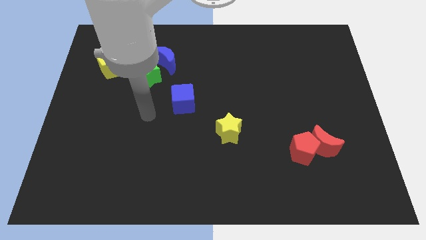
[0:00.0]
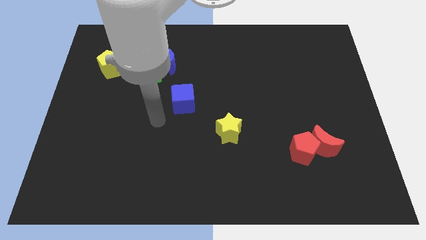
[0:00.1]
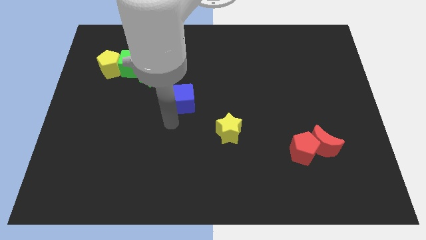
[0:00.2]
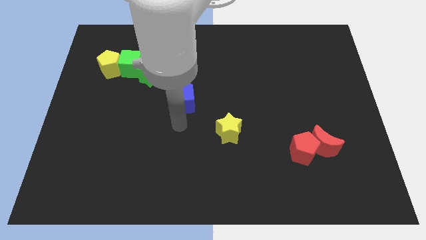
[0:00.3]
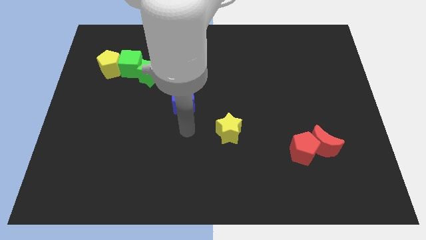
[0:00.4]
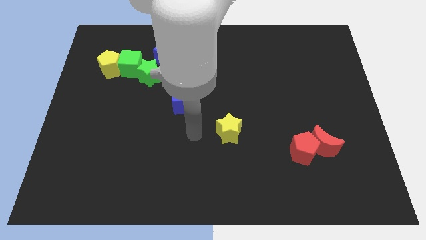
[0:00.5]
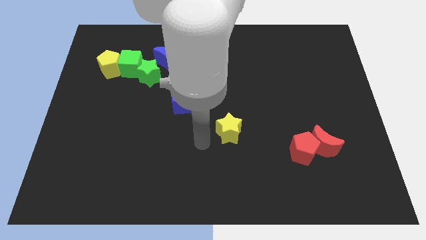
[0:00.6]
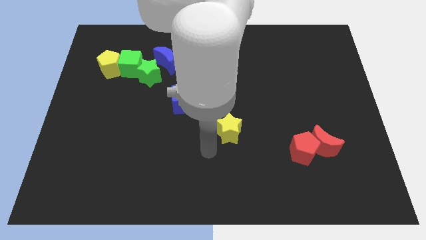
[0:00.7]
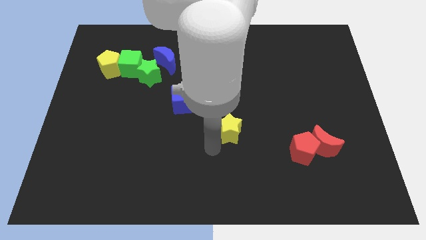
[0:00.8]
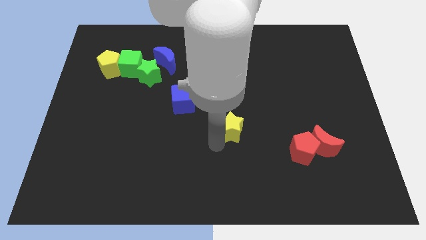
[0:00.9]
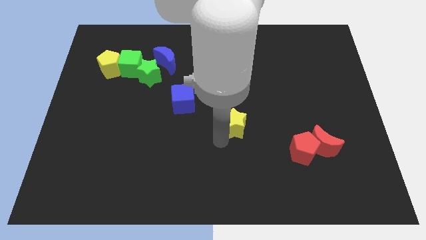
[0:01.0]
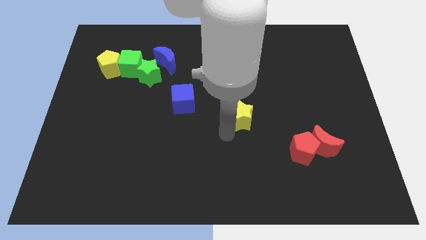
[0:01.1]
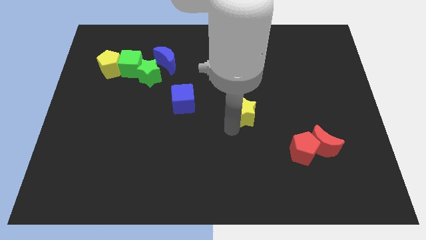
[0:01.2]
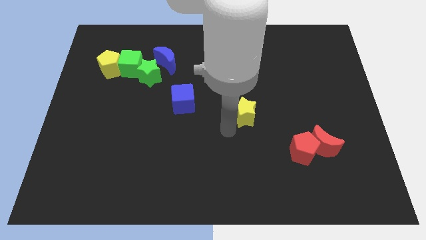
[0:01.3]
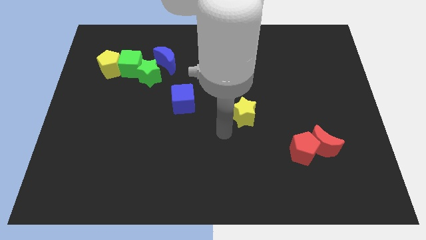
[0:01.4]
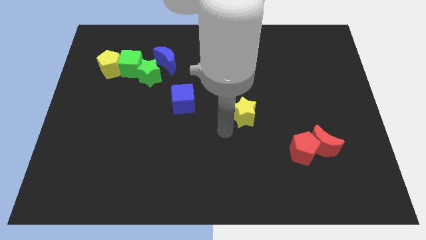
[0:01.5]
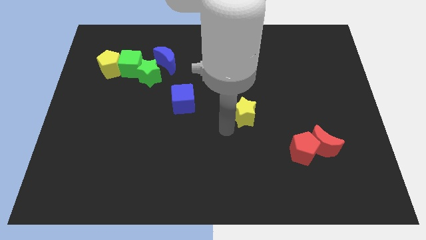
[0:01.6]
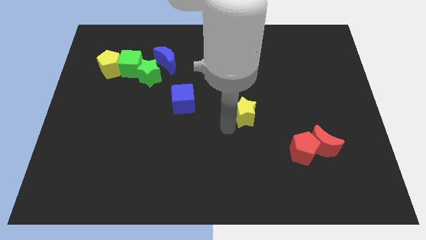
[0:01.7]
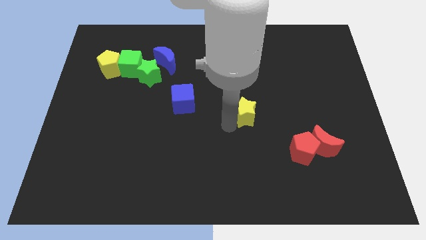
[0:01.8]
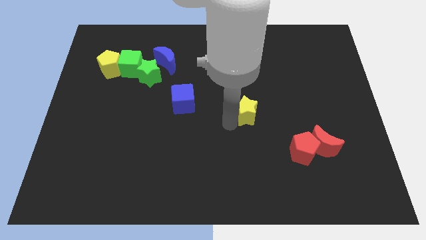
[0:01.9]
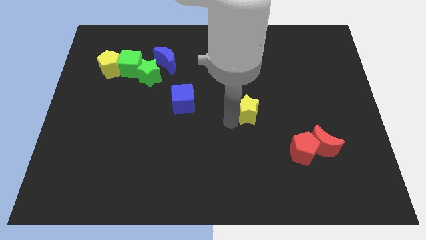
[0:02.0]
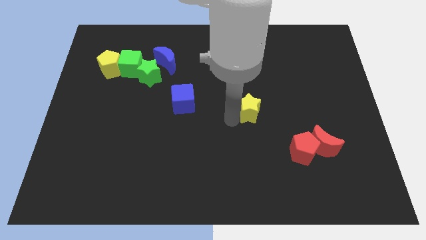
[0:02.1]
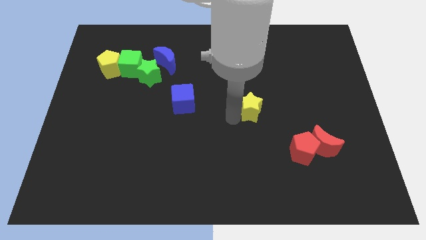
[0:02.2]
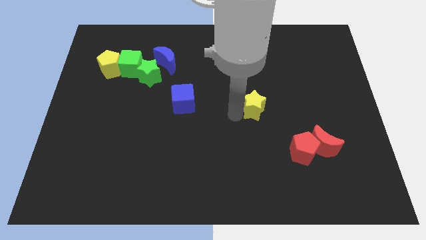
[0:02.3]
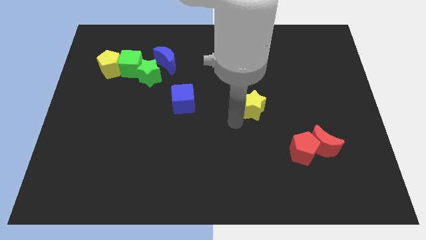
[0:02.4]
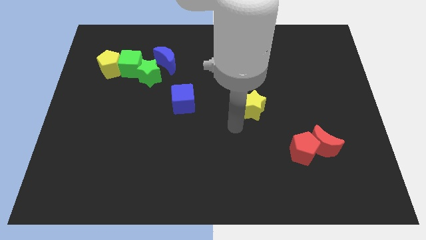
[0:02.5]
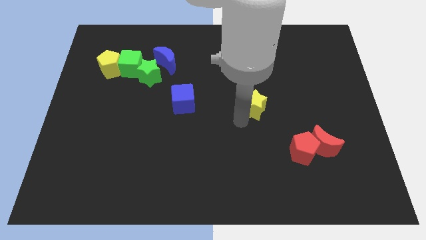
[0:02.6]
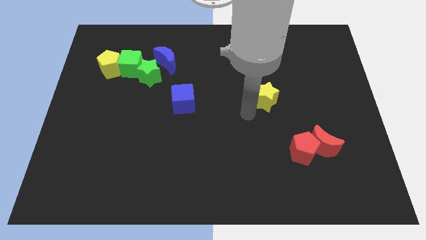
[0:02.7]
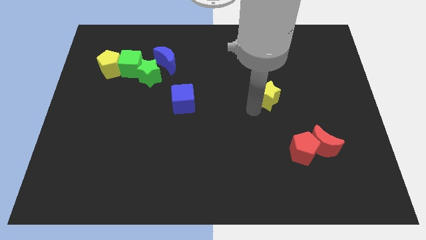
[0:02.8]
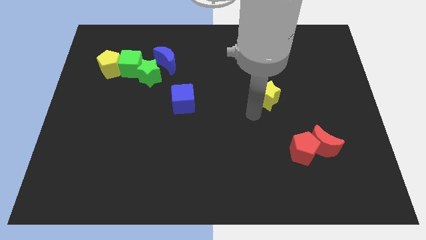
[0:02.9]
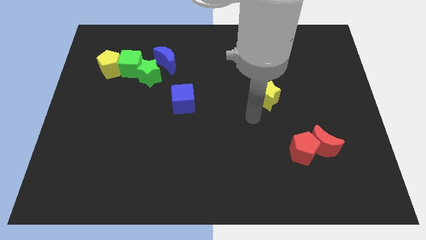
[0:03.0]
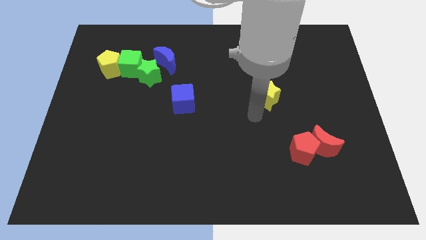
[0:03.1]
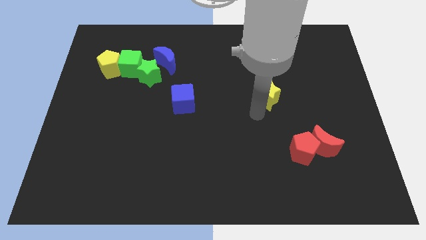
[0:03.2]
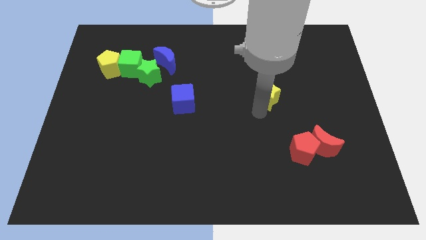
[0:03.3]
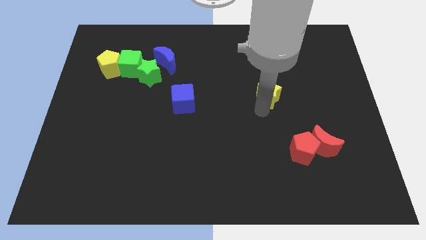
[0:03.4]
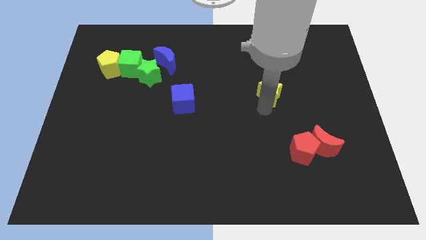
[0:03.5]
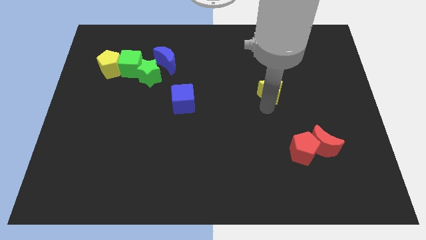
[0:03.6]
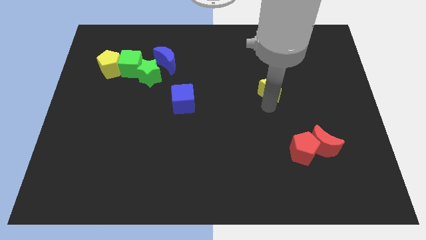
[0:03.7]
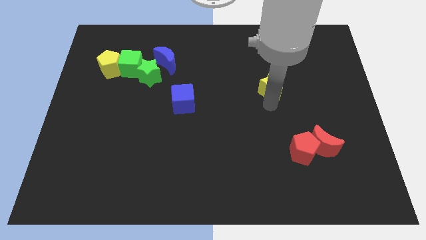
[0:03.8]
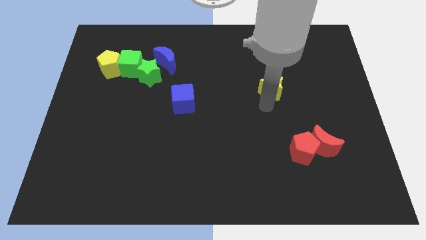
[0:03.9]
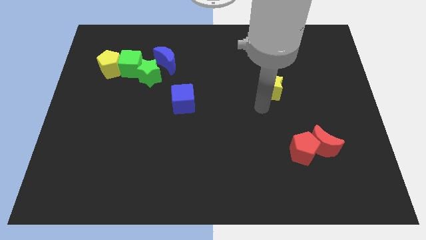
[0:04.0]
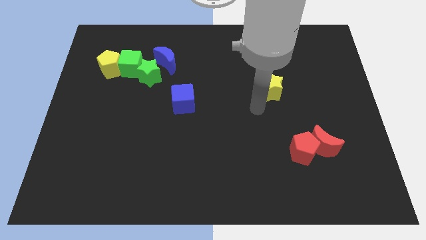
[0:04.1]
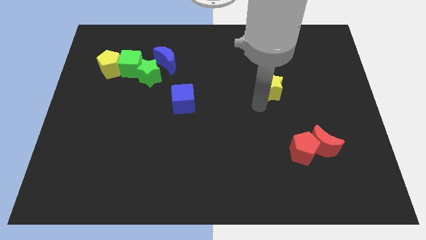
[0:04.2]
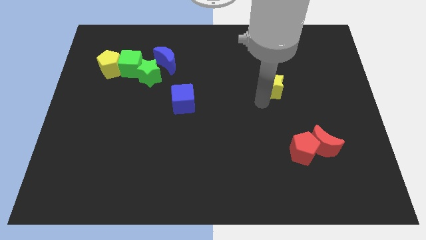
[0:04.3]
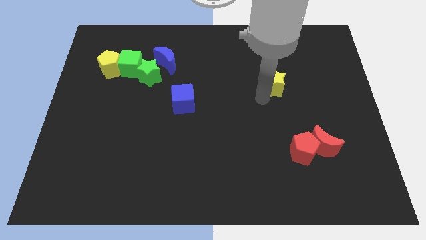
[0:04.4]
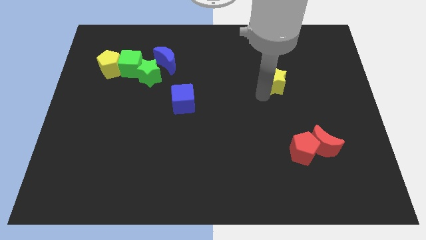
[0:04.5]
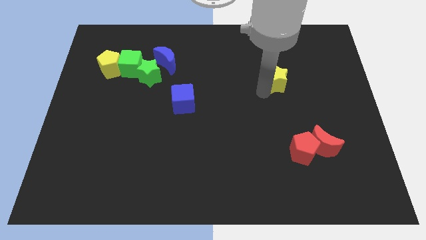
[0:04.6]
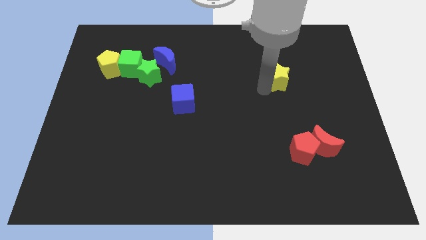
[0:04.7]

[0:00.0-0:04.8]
move the yellow star up and right diagonally

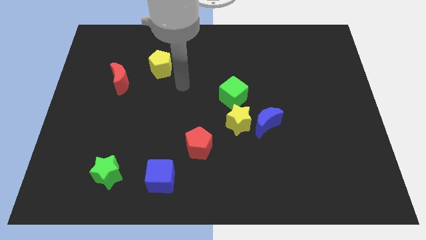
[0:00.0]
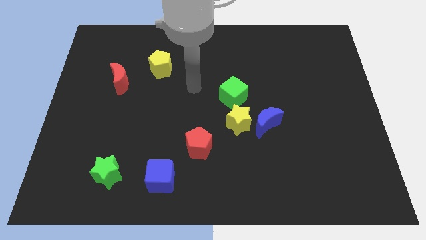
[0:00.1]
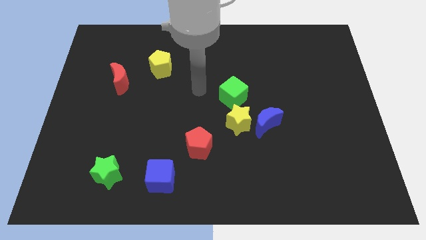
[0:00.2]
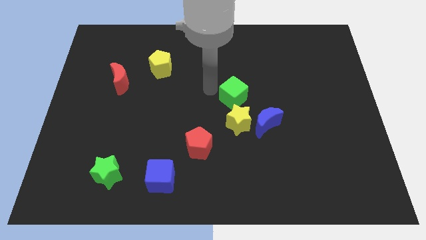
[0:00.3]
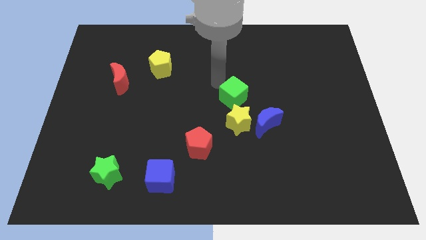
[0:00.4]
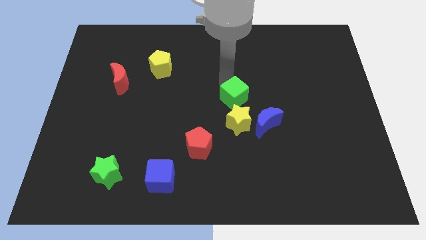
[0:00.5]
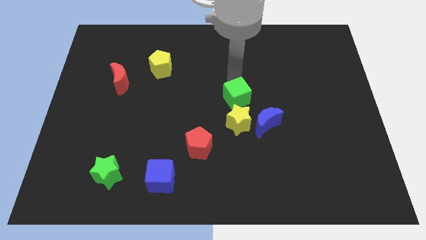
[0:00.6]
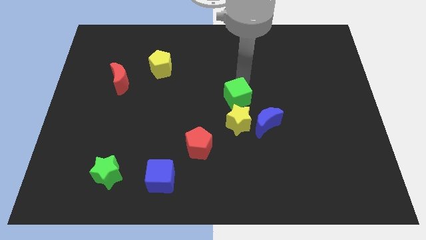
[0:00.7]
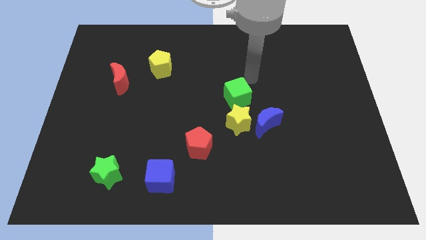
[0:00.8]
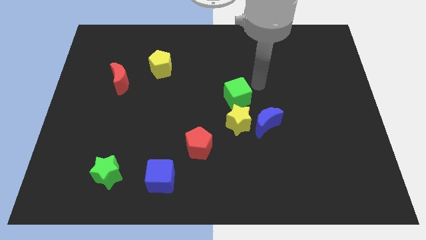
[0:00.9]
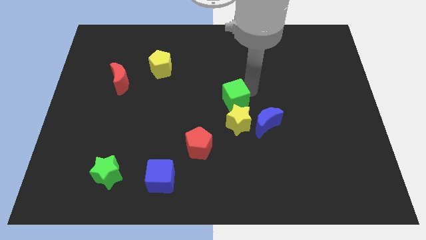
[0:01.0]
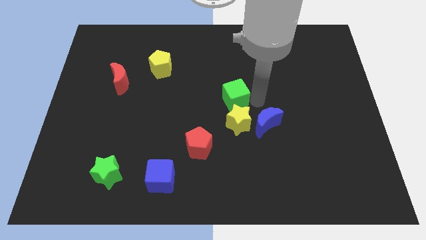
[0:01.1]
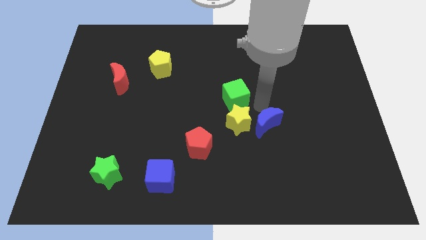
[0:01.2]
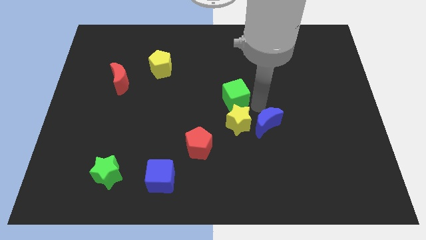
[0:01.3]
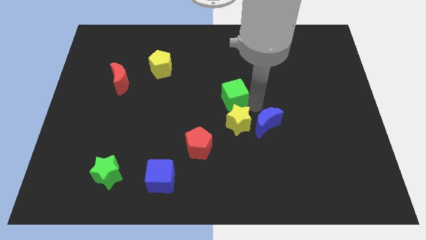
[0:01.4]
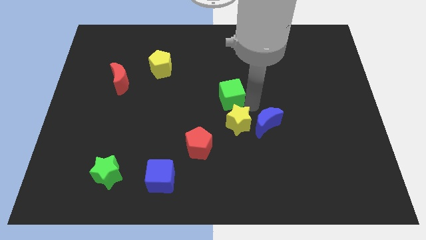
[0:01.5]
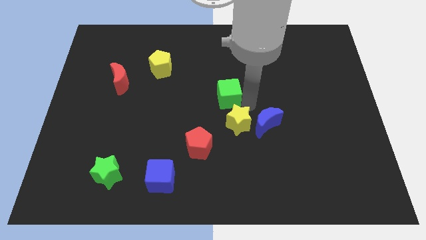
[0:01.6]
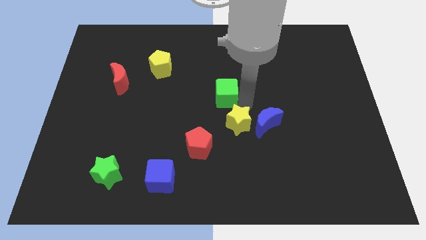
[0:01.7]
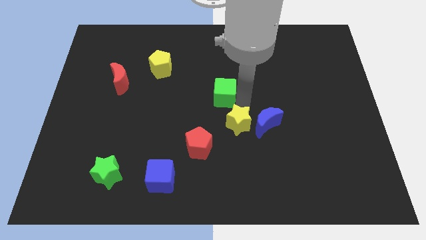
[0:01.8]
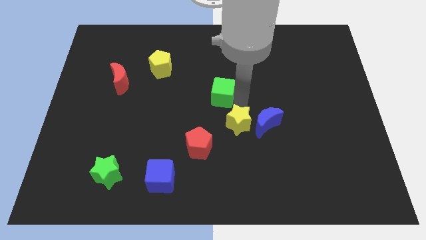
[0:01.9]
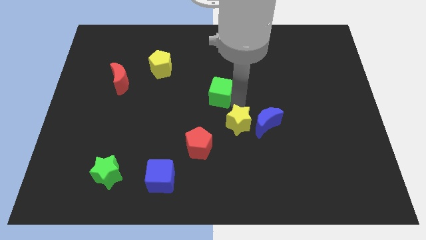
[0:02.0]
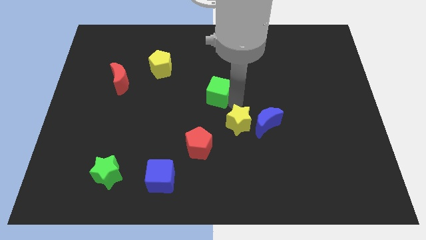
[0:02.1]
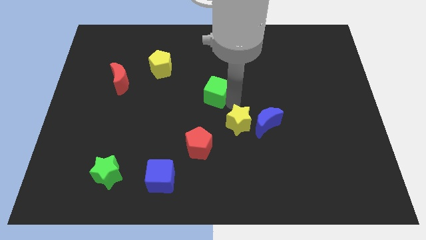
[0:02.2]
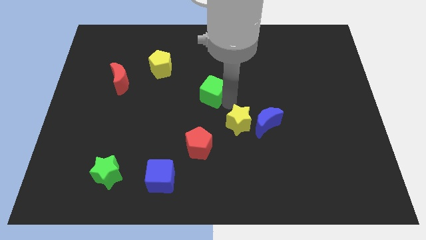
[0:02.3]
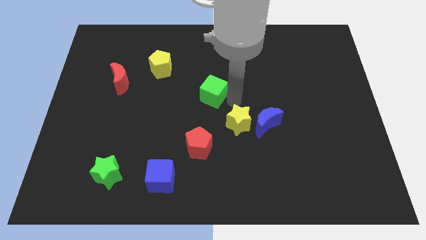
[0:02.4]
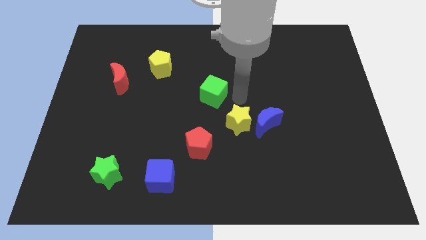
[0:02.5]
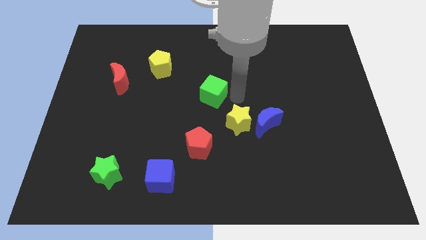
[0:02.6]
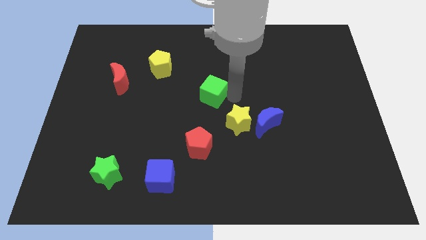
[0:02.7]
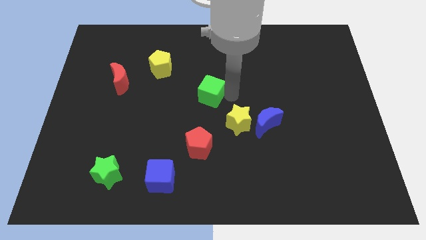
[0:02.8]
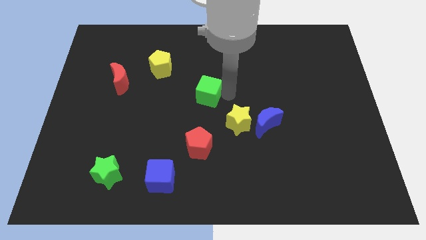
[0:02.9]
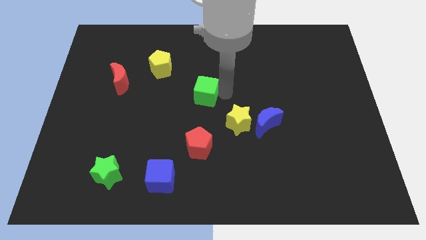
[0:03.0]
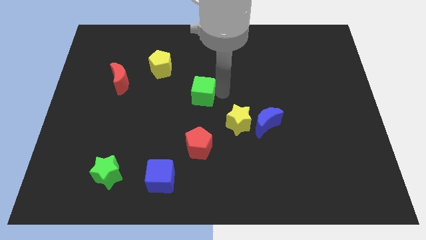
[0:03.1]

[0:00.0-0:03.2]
move the green cube to the left a little
